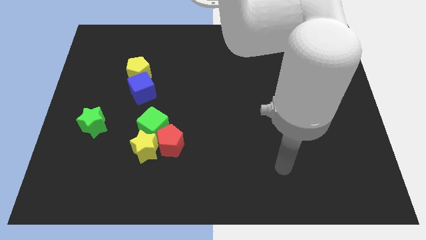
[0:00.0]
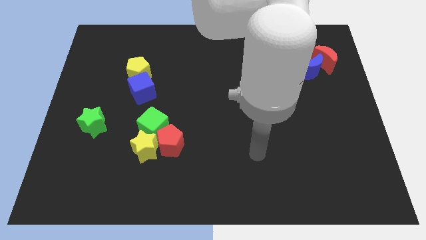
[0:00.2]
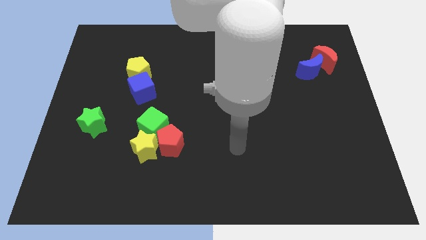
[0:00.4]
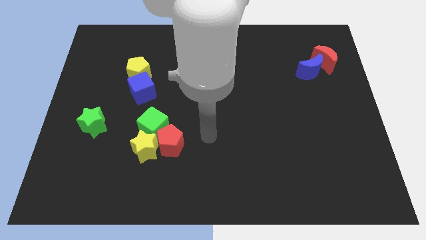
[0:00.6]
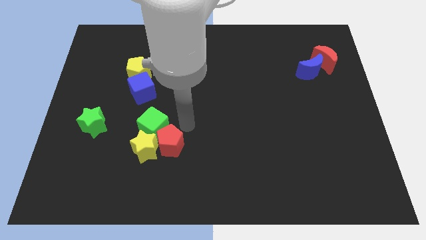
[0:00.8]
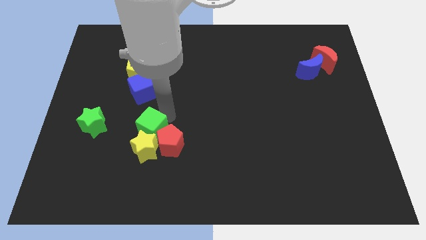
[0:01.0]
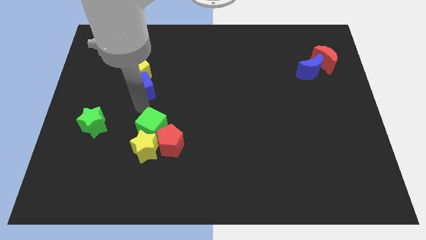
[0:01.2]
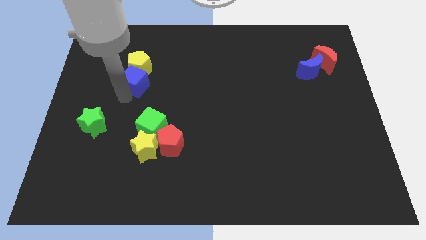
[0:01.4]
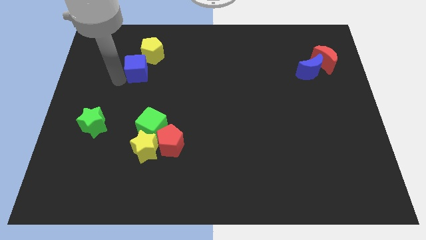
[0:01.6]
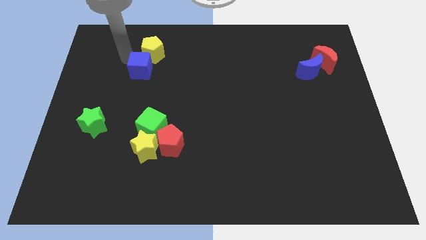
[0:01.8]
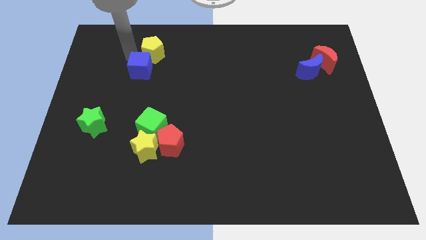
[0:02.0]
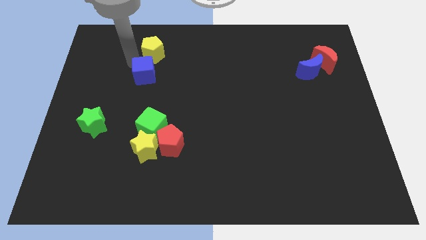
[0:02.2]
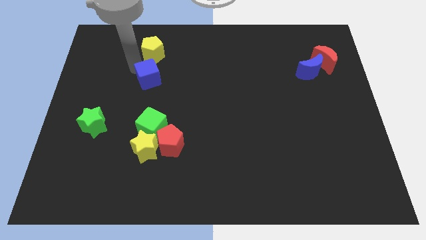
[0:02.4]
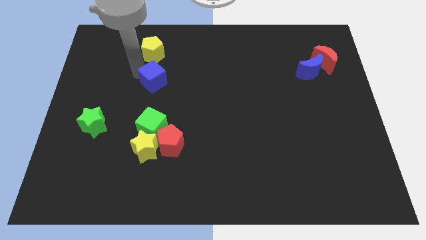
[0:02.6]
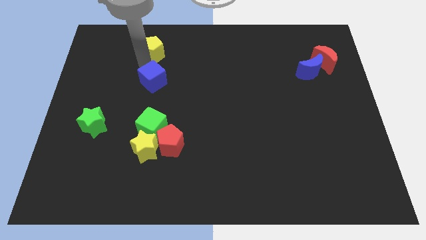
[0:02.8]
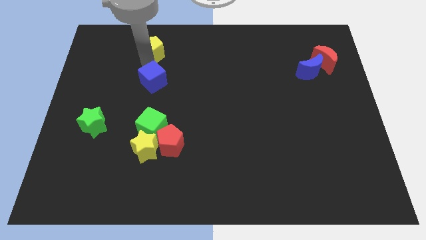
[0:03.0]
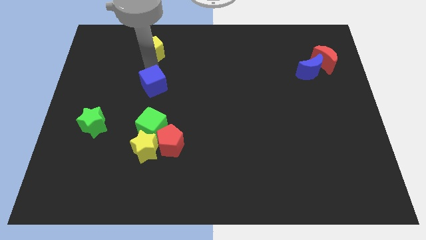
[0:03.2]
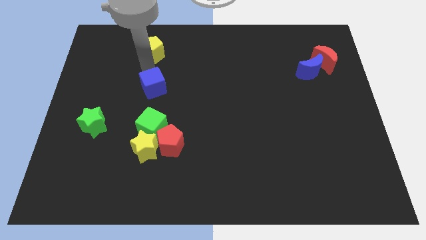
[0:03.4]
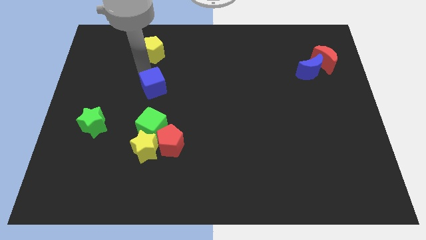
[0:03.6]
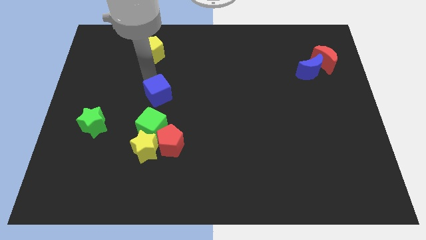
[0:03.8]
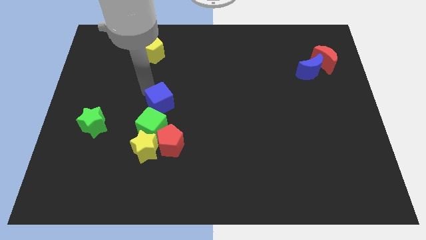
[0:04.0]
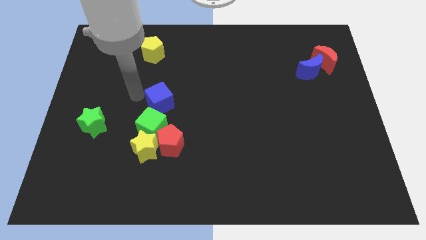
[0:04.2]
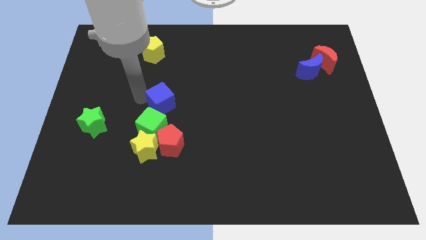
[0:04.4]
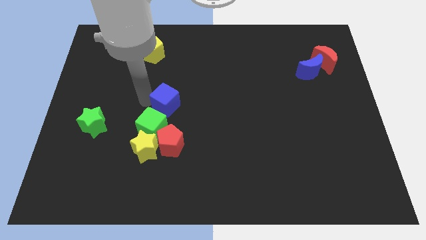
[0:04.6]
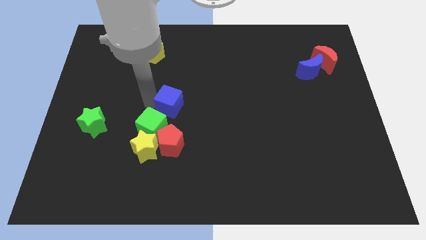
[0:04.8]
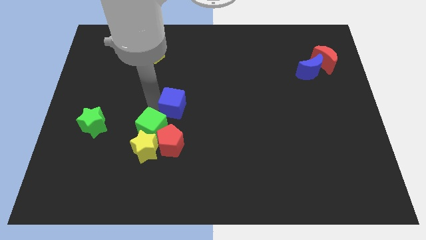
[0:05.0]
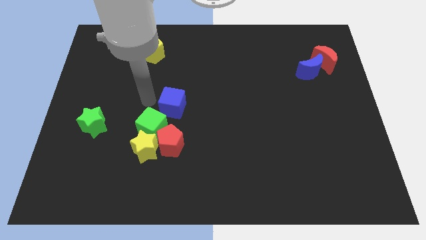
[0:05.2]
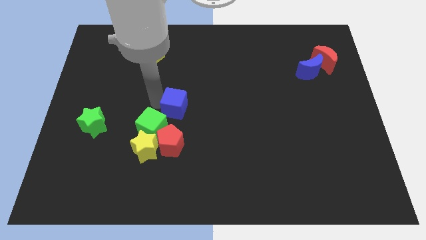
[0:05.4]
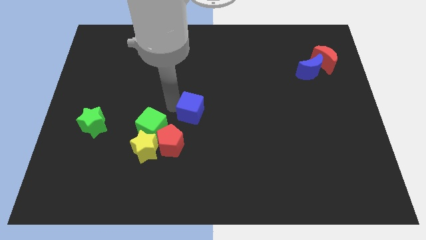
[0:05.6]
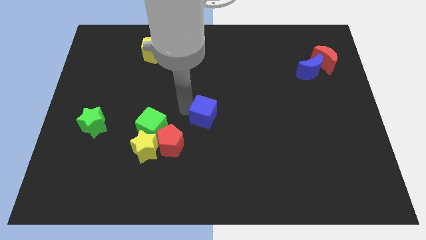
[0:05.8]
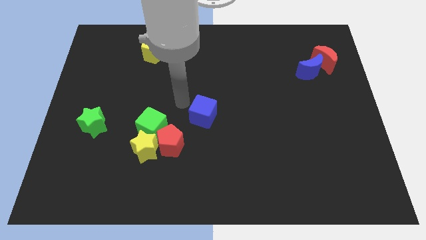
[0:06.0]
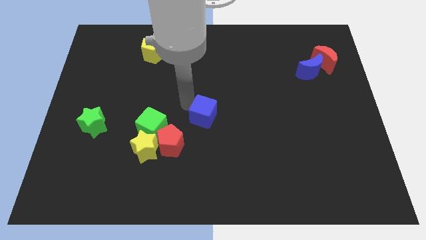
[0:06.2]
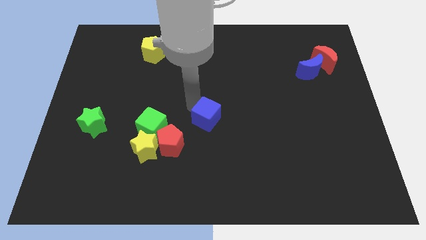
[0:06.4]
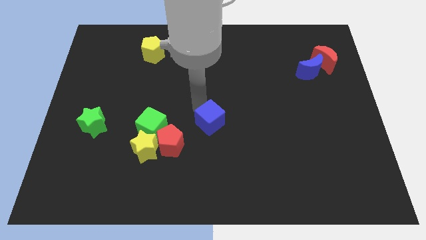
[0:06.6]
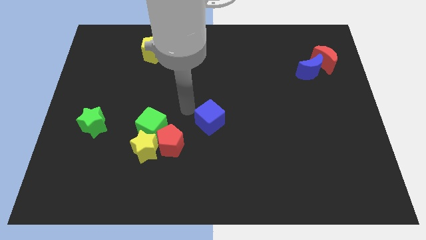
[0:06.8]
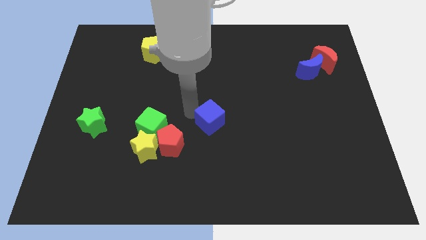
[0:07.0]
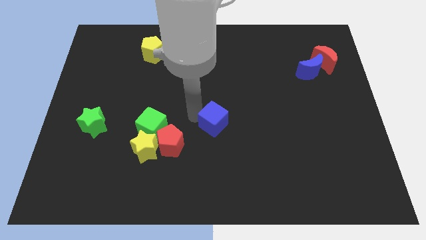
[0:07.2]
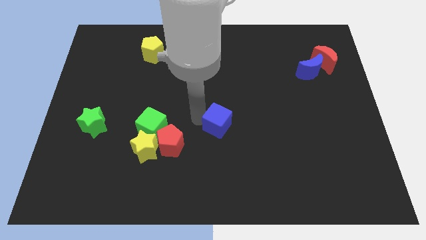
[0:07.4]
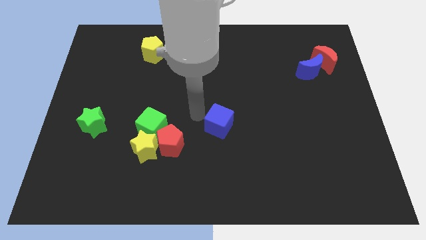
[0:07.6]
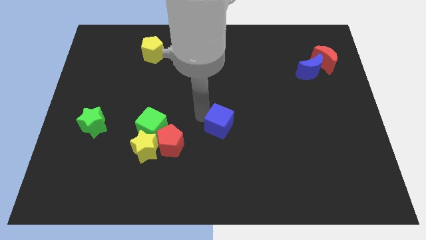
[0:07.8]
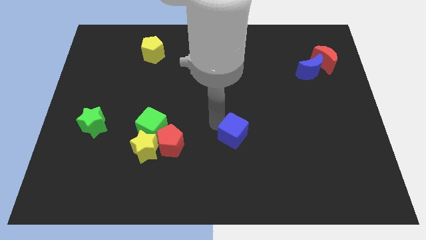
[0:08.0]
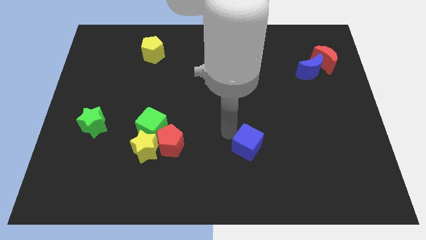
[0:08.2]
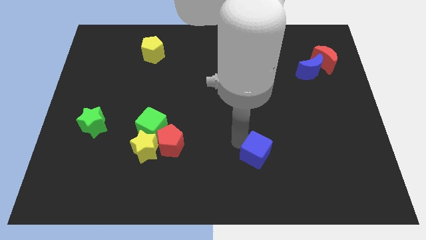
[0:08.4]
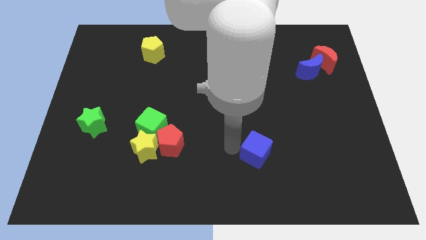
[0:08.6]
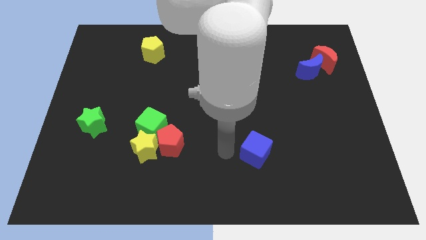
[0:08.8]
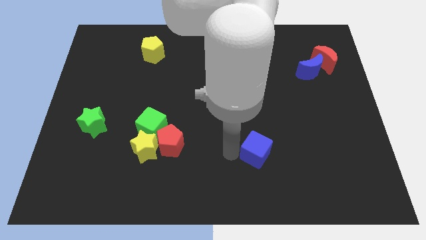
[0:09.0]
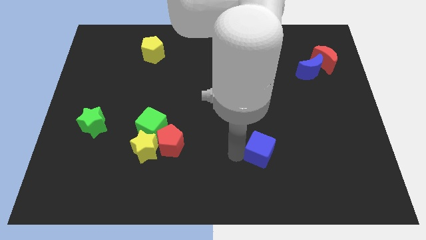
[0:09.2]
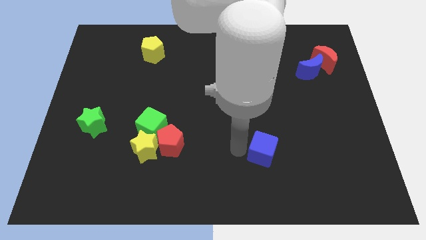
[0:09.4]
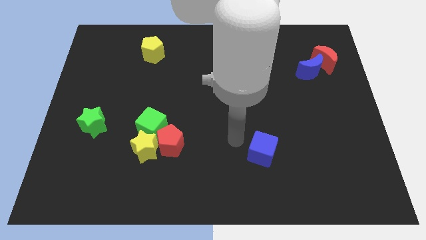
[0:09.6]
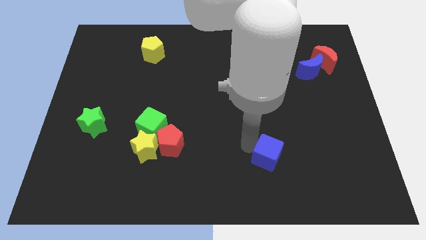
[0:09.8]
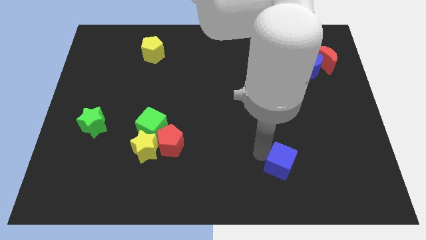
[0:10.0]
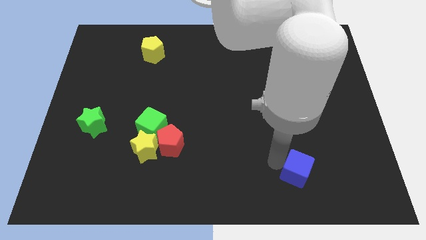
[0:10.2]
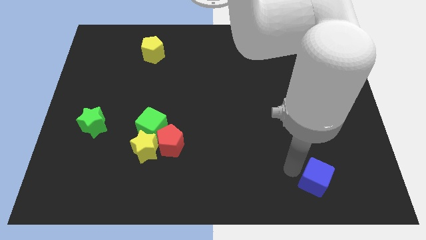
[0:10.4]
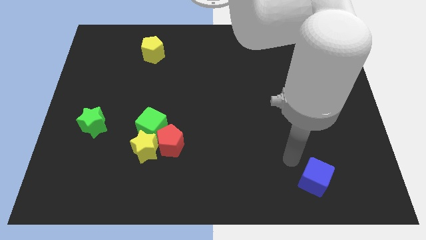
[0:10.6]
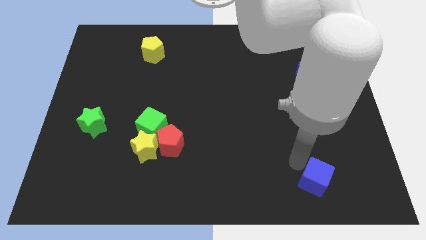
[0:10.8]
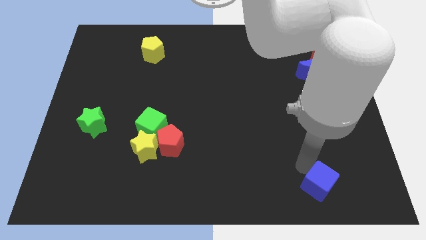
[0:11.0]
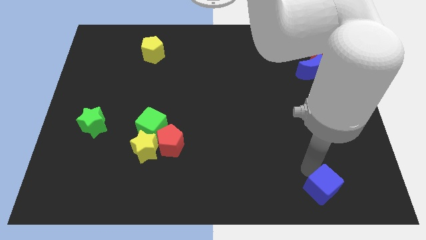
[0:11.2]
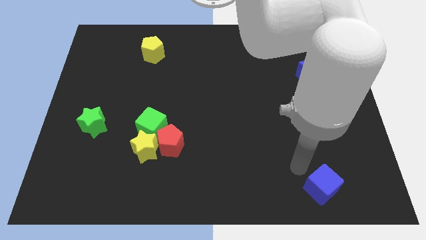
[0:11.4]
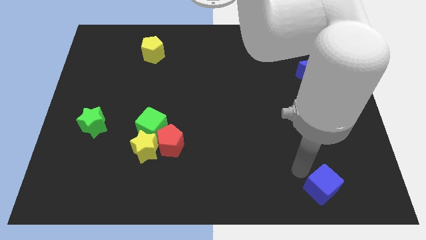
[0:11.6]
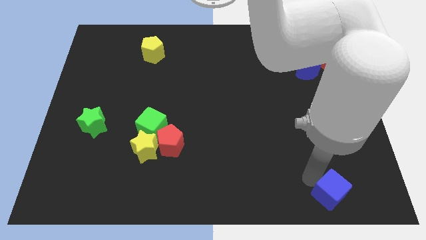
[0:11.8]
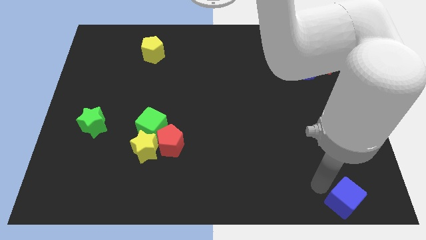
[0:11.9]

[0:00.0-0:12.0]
push the blue cube to the bottom right

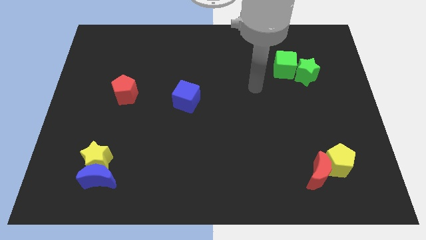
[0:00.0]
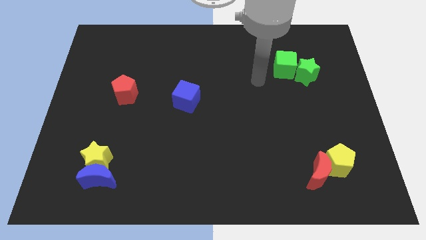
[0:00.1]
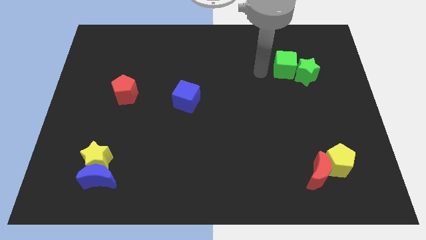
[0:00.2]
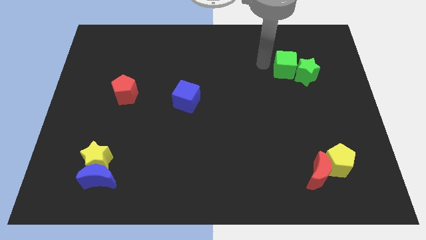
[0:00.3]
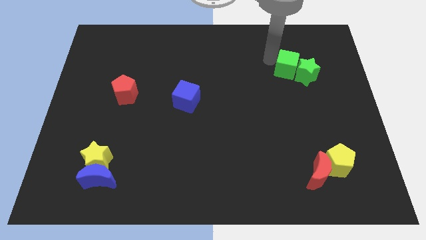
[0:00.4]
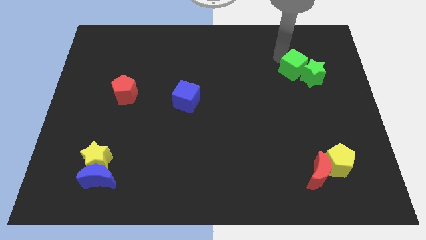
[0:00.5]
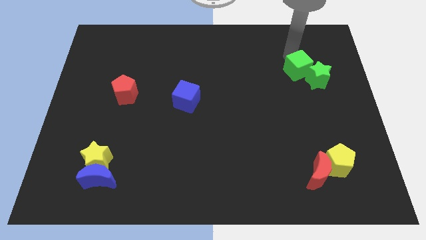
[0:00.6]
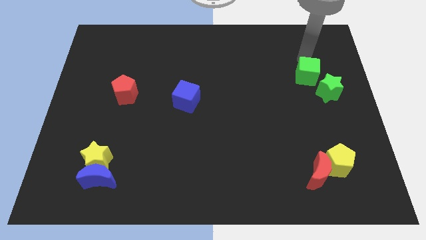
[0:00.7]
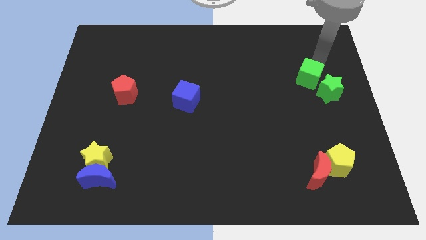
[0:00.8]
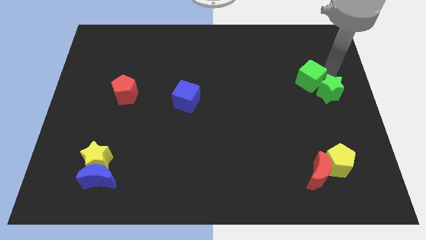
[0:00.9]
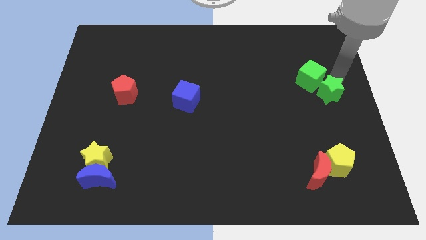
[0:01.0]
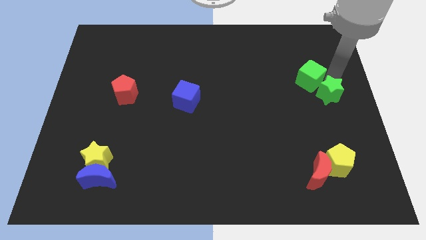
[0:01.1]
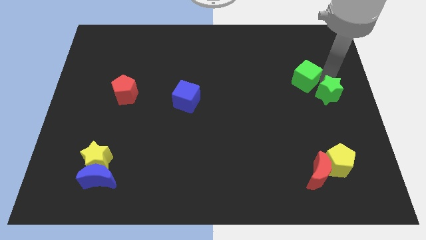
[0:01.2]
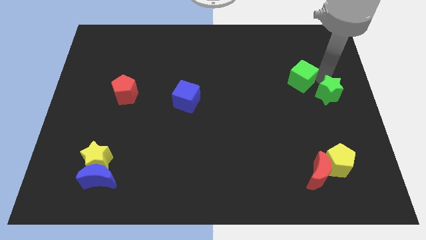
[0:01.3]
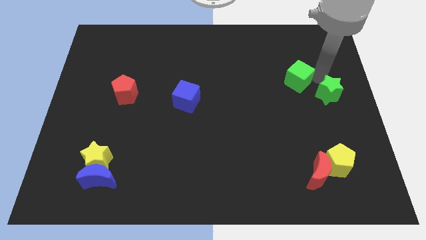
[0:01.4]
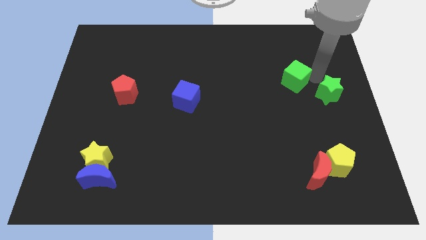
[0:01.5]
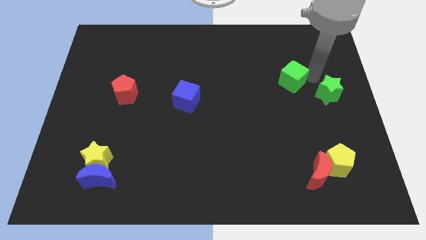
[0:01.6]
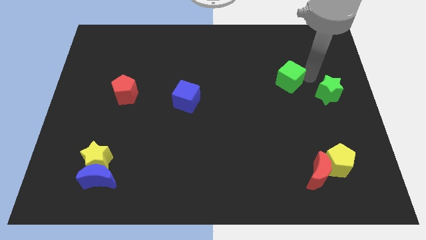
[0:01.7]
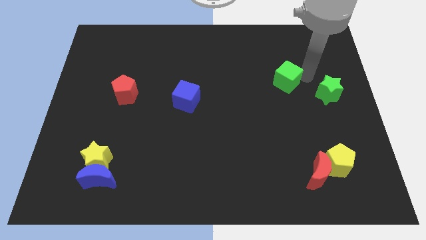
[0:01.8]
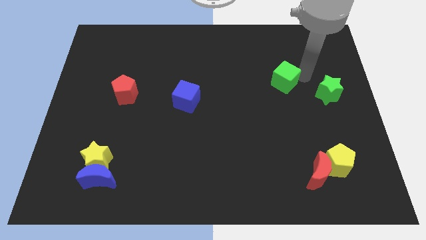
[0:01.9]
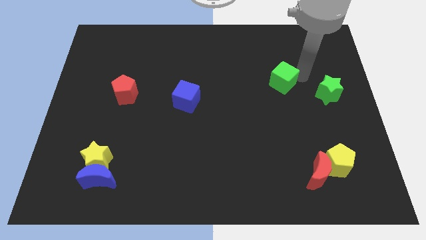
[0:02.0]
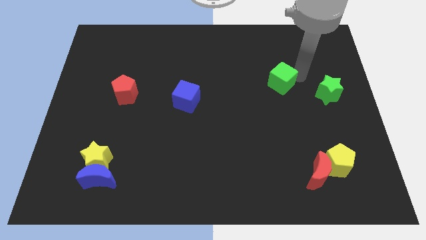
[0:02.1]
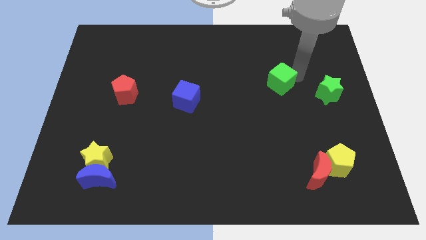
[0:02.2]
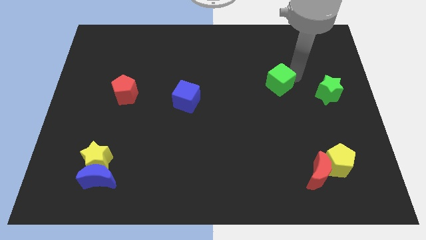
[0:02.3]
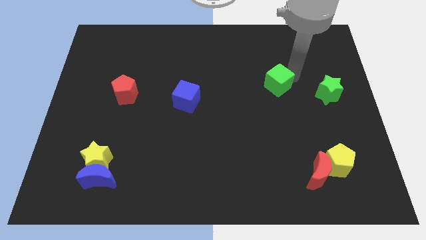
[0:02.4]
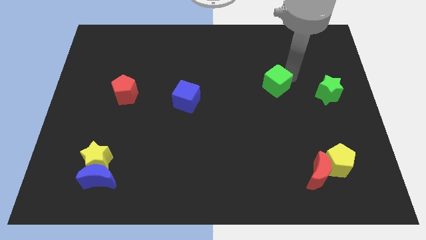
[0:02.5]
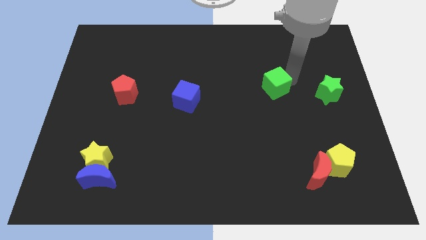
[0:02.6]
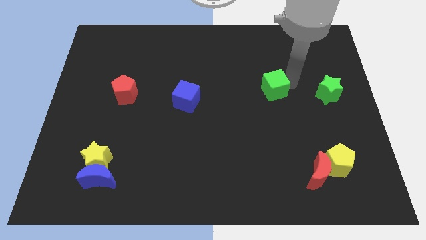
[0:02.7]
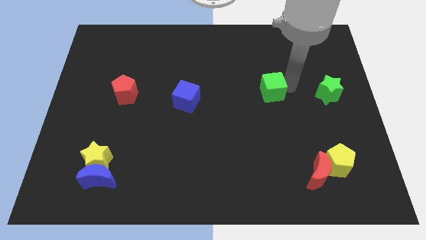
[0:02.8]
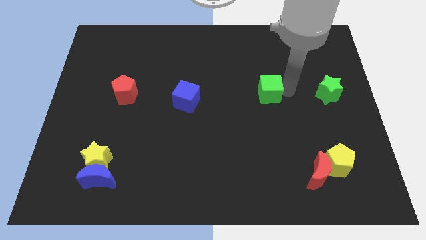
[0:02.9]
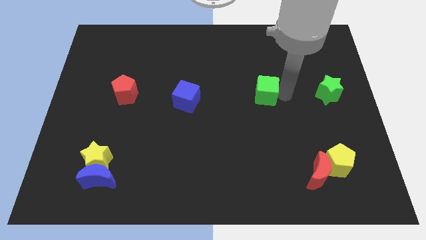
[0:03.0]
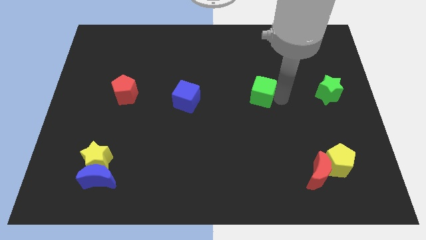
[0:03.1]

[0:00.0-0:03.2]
move the green cube to the center of the board
